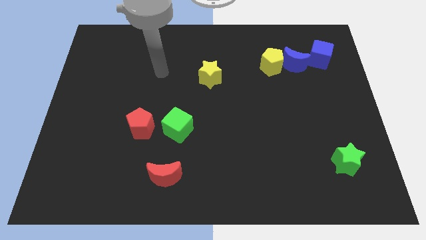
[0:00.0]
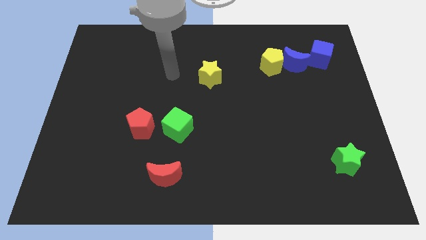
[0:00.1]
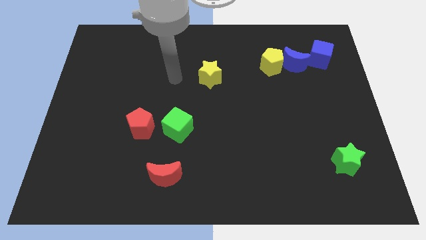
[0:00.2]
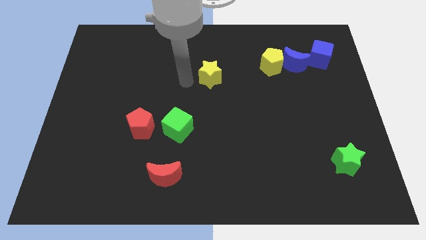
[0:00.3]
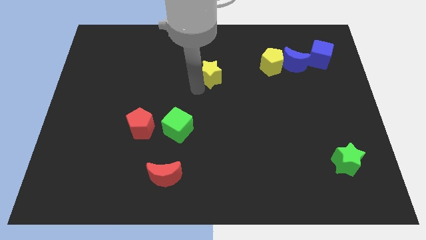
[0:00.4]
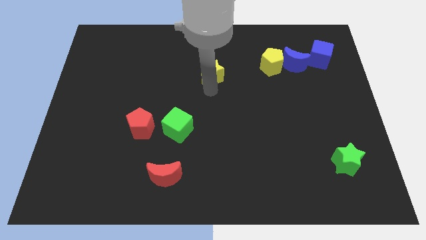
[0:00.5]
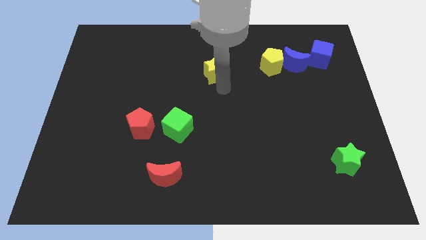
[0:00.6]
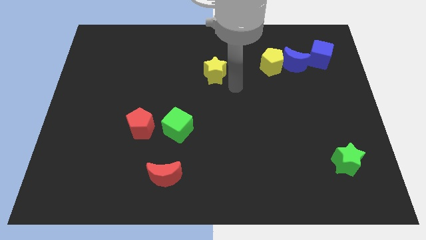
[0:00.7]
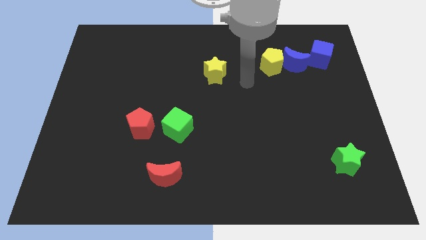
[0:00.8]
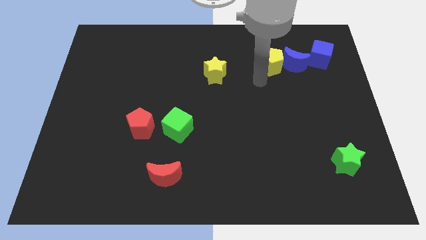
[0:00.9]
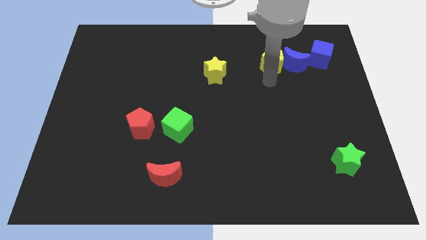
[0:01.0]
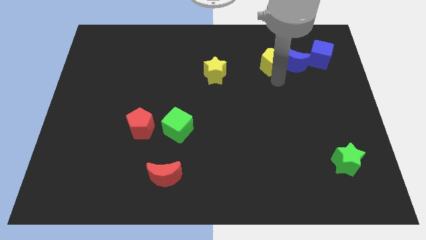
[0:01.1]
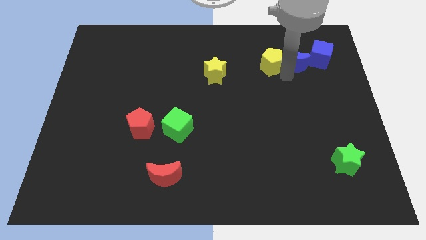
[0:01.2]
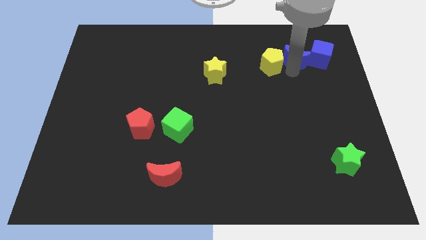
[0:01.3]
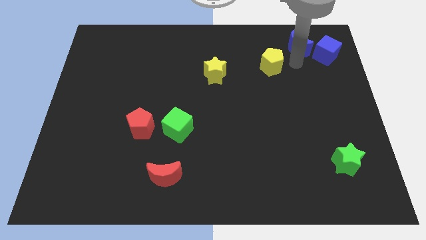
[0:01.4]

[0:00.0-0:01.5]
pull the yellow pentagon apart from the blue moon

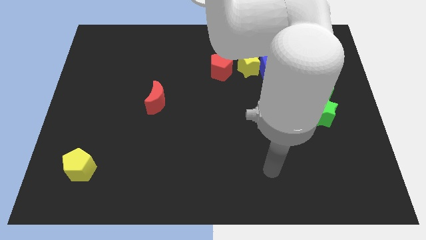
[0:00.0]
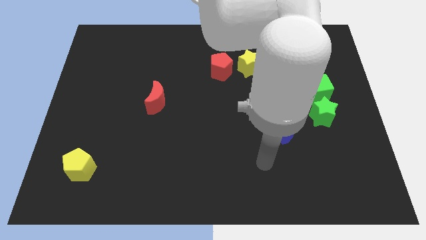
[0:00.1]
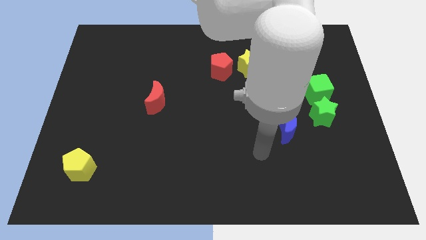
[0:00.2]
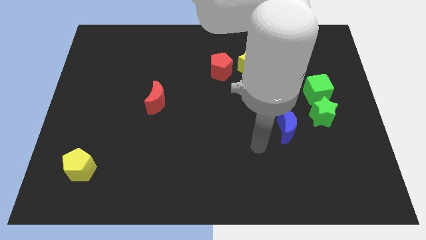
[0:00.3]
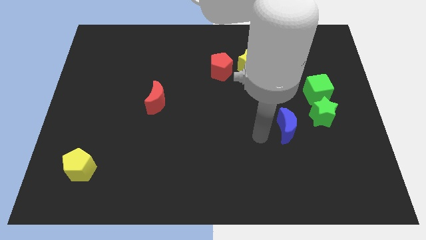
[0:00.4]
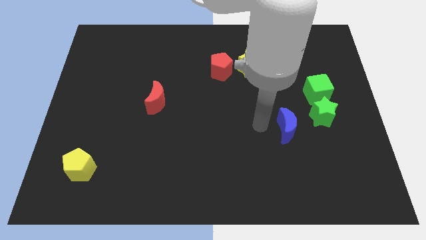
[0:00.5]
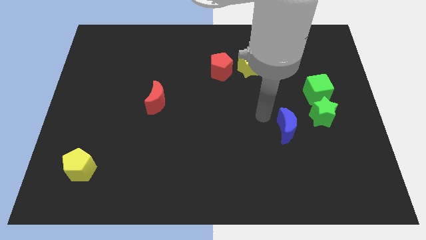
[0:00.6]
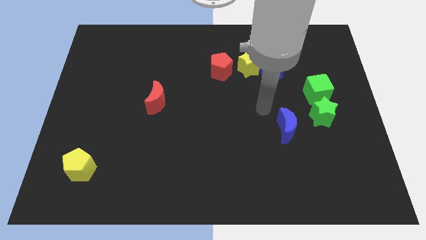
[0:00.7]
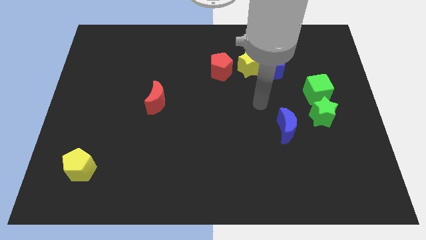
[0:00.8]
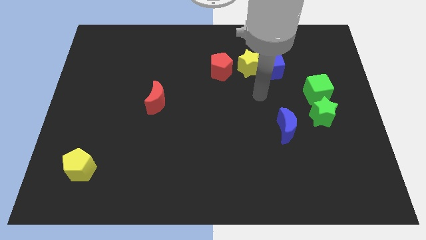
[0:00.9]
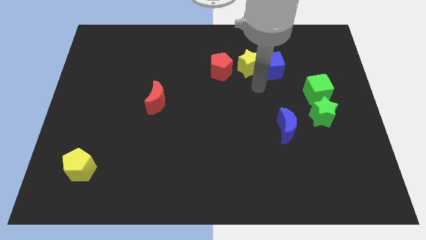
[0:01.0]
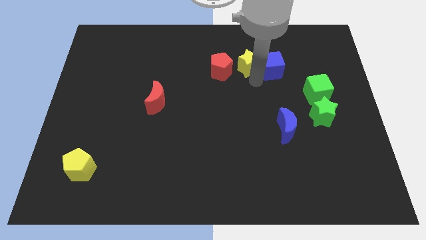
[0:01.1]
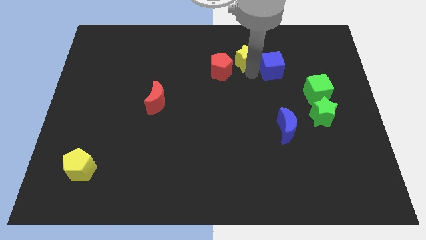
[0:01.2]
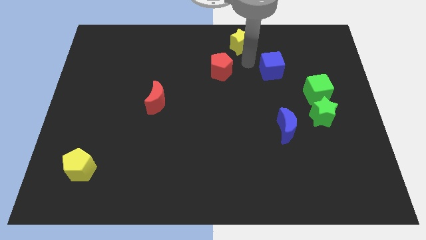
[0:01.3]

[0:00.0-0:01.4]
move the blue cube away from the yellow star

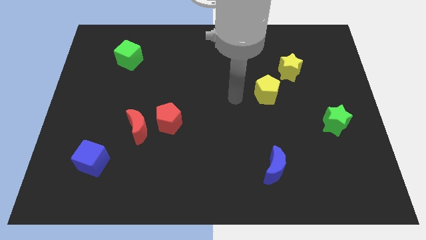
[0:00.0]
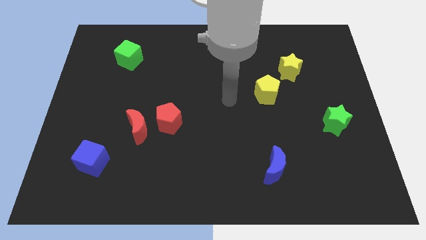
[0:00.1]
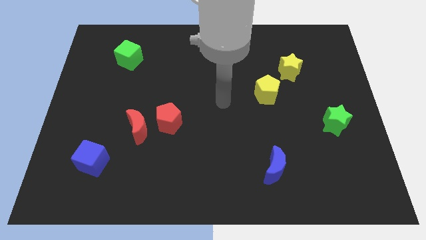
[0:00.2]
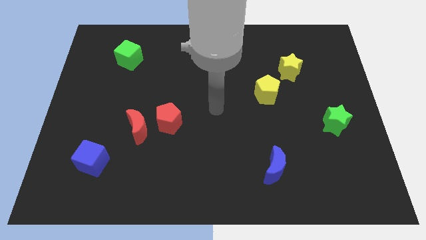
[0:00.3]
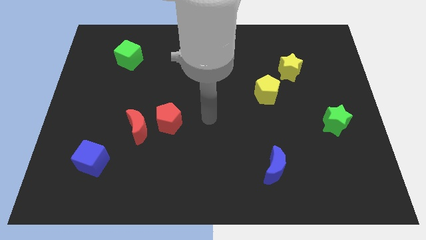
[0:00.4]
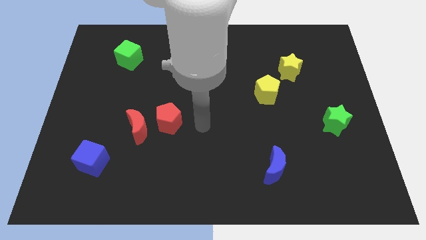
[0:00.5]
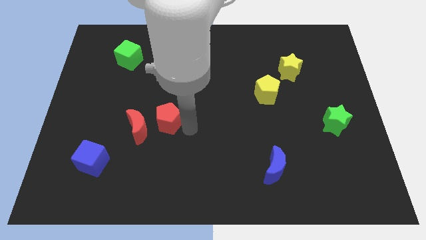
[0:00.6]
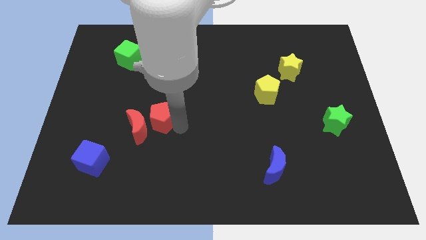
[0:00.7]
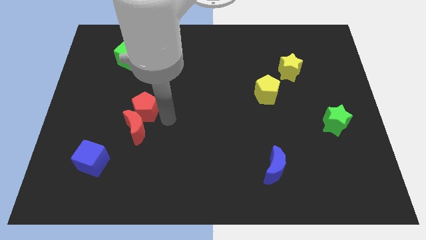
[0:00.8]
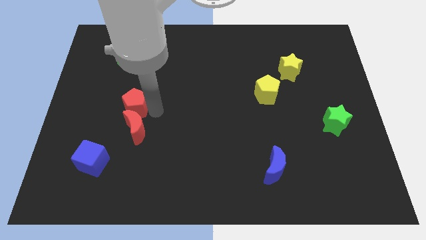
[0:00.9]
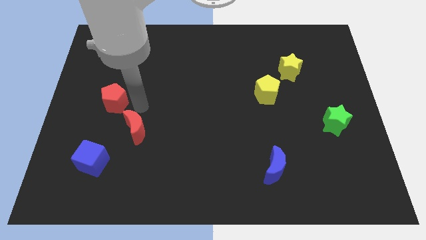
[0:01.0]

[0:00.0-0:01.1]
move the red moon away from the red pentagon

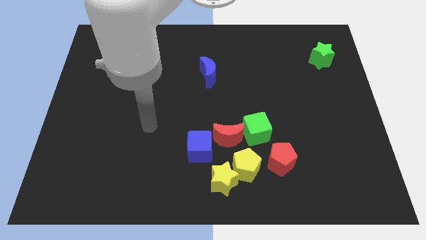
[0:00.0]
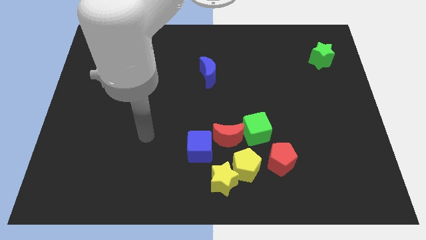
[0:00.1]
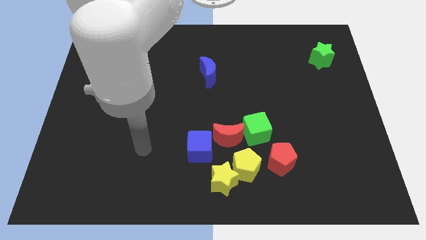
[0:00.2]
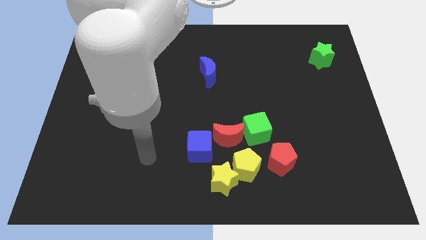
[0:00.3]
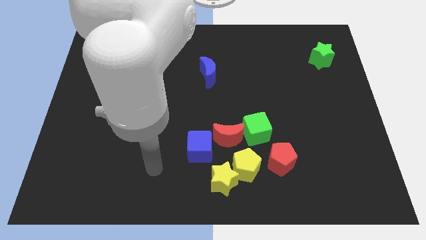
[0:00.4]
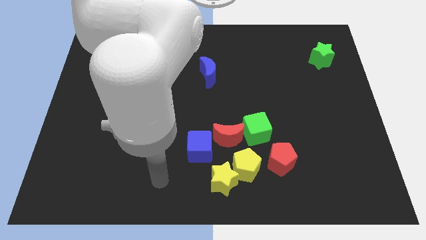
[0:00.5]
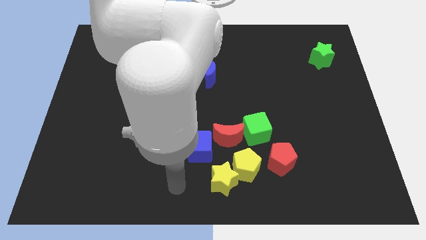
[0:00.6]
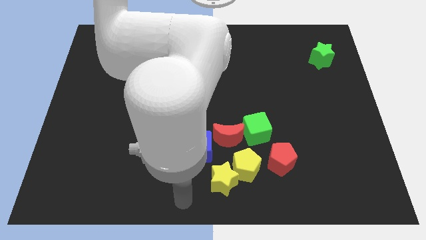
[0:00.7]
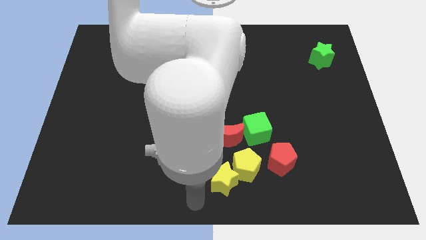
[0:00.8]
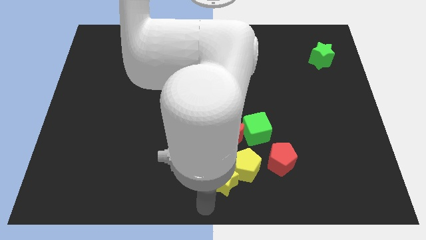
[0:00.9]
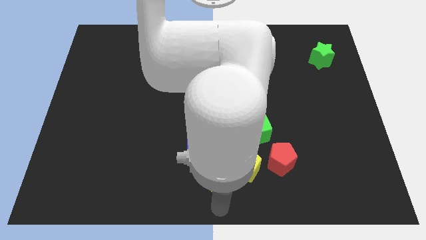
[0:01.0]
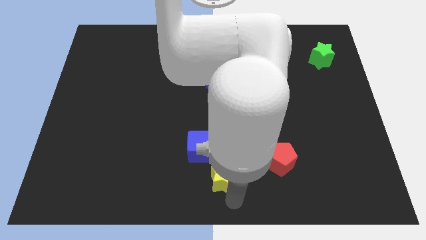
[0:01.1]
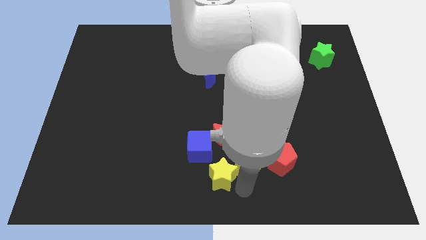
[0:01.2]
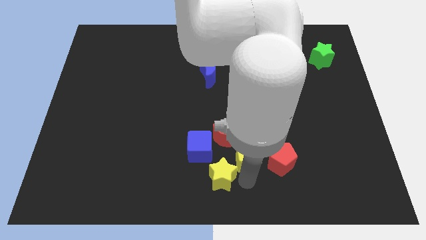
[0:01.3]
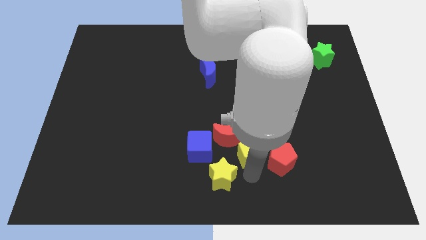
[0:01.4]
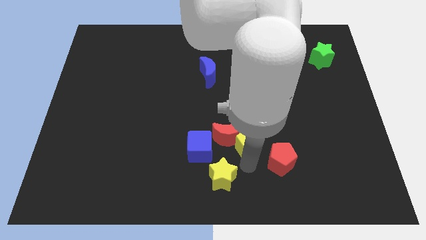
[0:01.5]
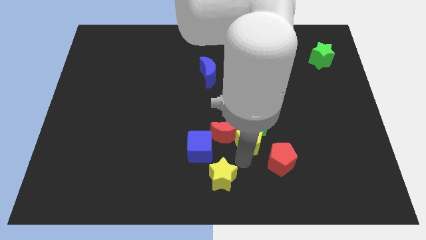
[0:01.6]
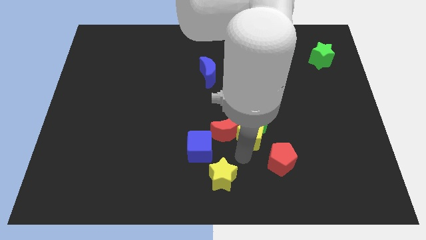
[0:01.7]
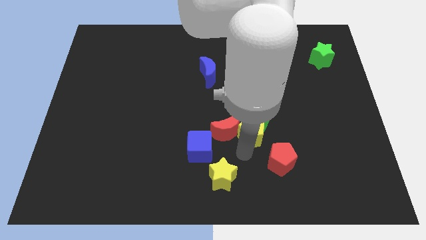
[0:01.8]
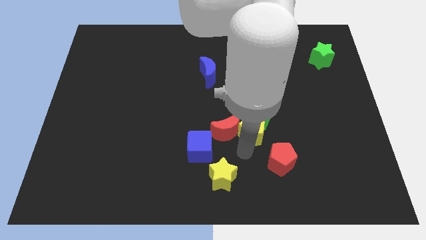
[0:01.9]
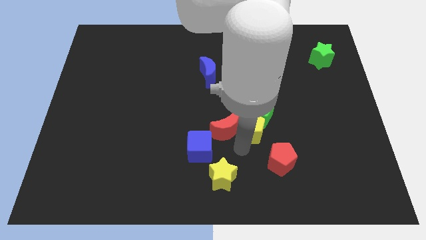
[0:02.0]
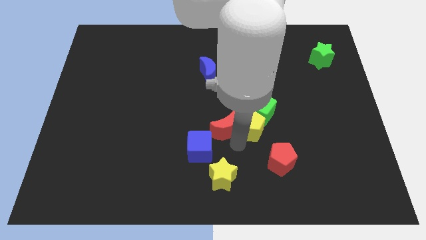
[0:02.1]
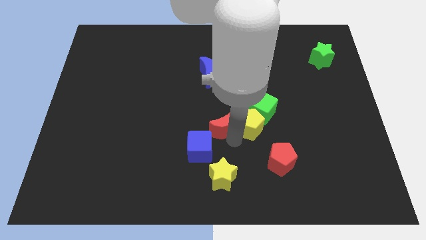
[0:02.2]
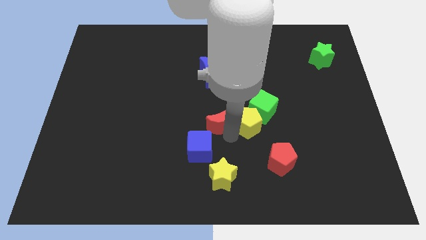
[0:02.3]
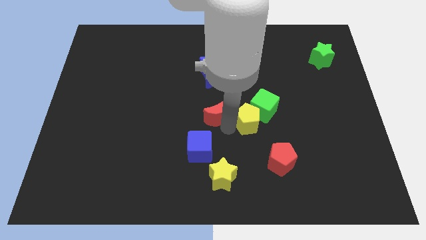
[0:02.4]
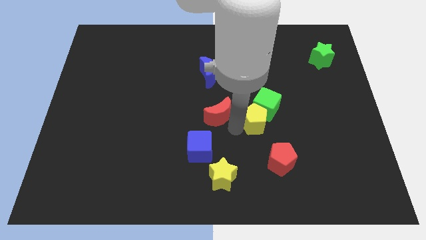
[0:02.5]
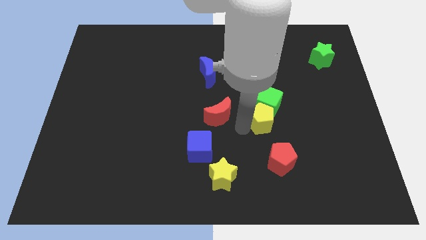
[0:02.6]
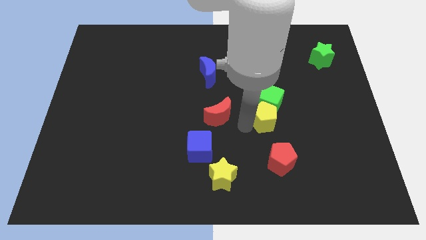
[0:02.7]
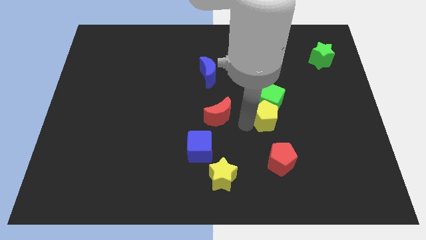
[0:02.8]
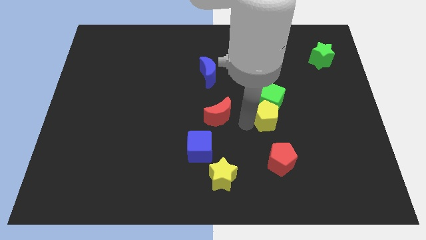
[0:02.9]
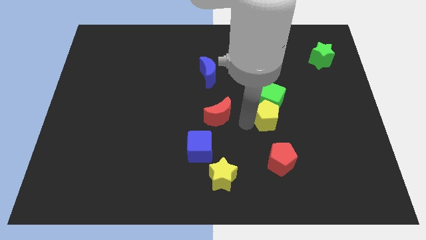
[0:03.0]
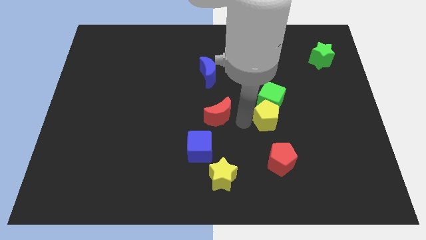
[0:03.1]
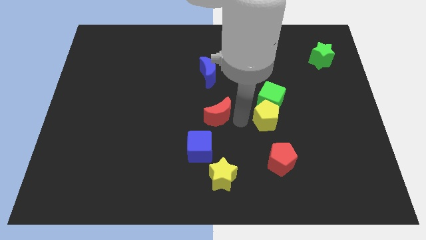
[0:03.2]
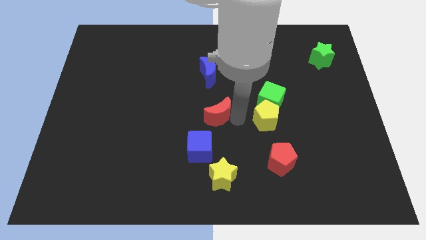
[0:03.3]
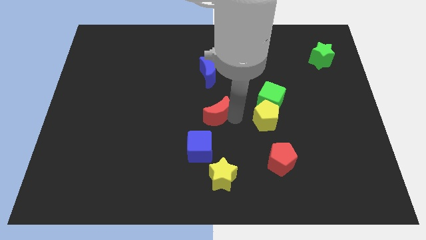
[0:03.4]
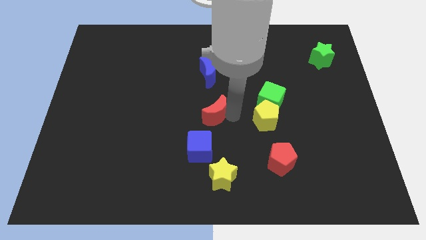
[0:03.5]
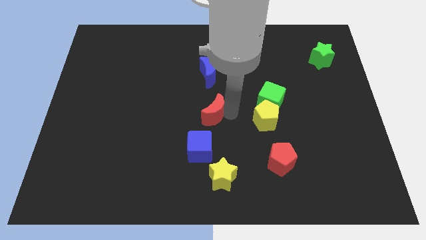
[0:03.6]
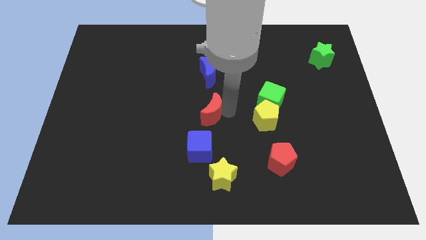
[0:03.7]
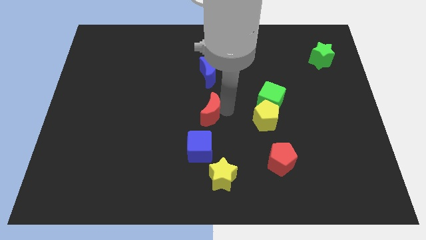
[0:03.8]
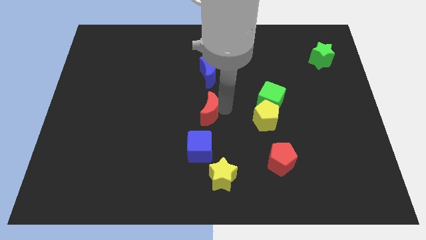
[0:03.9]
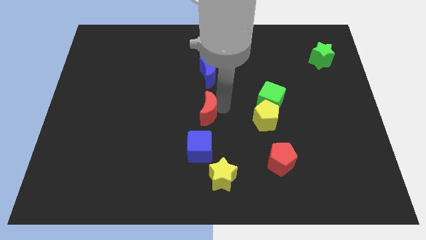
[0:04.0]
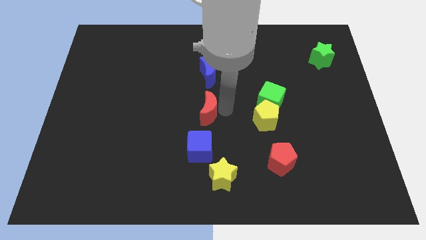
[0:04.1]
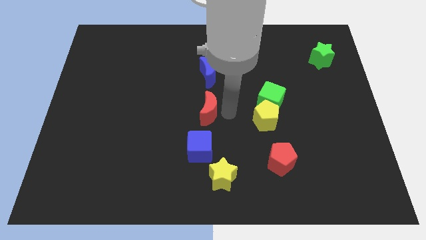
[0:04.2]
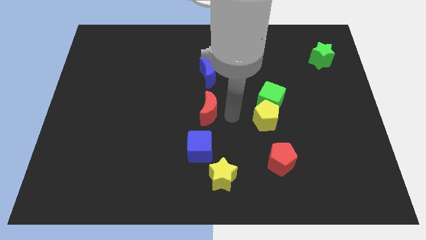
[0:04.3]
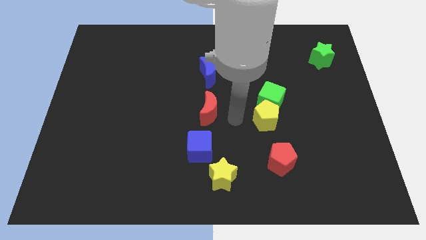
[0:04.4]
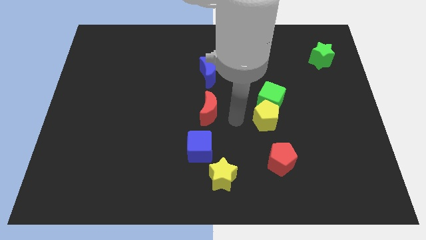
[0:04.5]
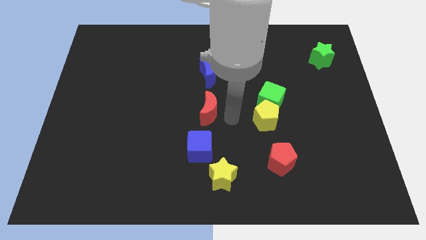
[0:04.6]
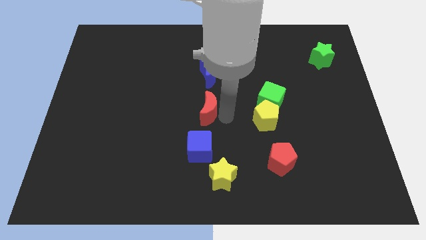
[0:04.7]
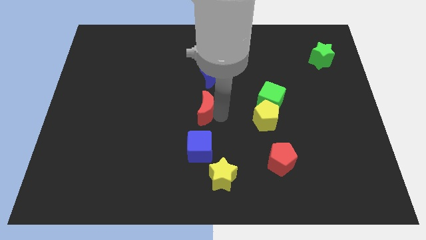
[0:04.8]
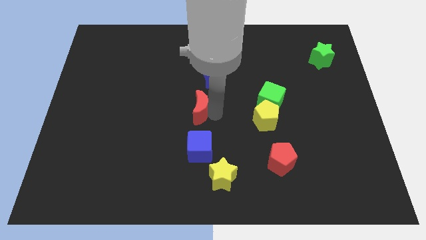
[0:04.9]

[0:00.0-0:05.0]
pull the red moon apart from the green cube, blue cube, and yellow pentagon

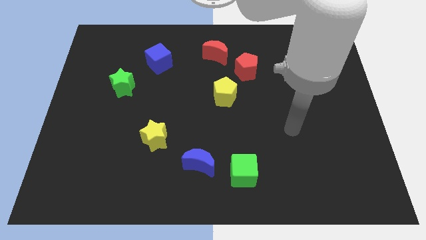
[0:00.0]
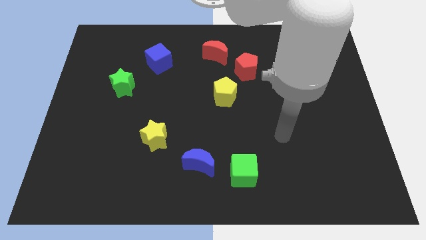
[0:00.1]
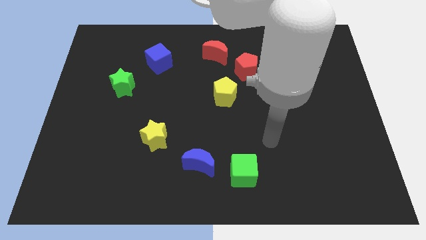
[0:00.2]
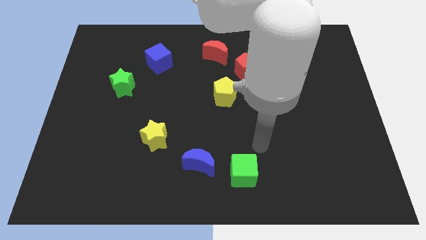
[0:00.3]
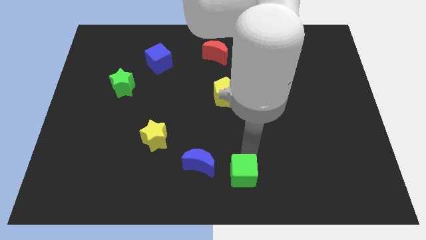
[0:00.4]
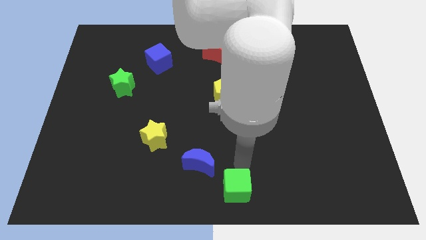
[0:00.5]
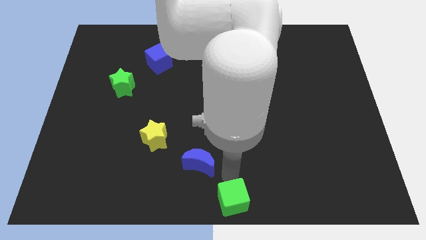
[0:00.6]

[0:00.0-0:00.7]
pull the blue moon apart from the green cube
